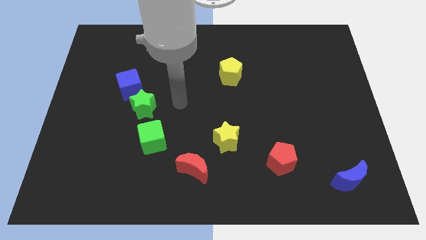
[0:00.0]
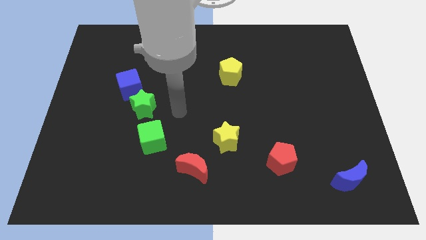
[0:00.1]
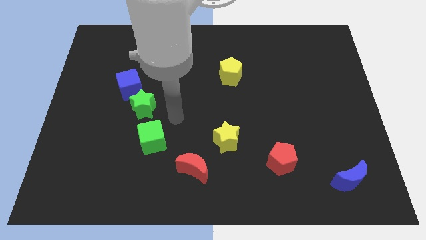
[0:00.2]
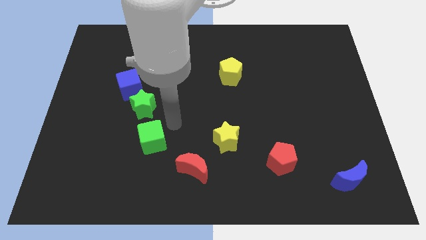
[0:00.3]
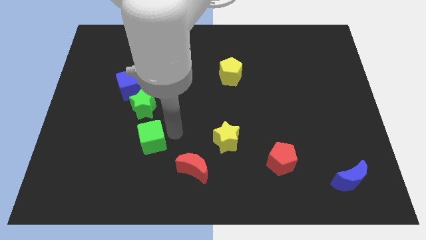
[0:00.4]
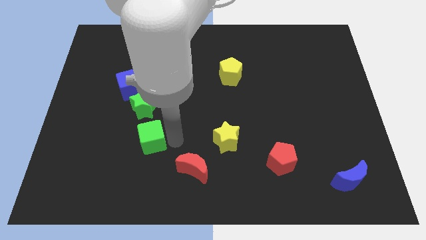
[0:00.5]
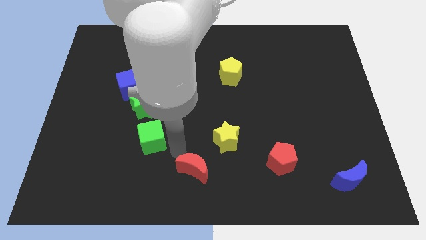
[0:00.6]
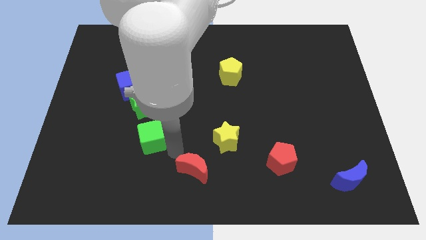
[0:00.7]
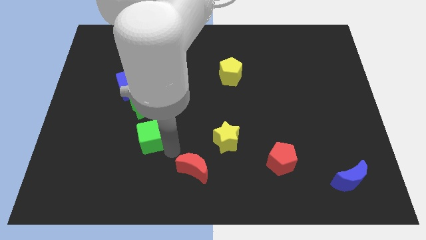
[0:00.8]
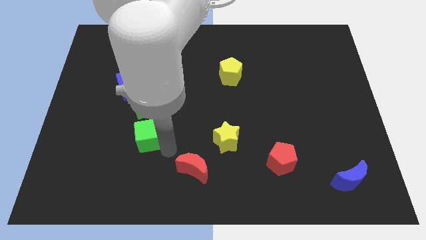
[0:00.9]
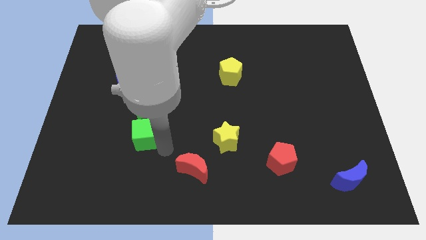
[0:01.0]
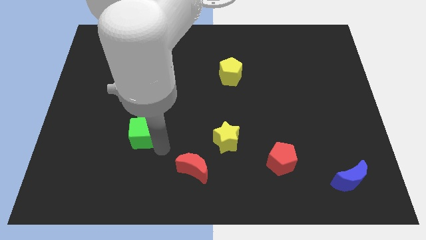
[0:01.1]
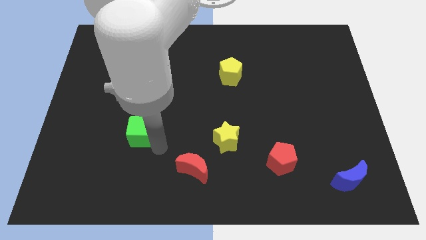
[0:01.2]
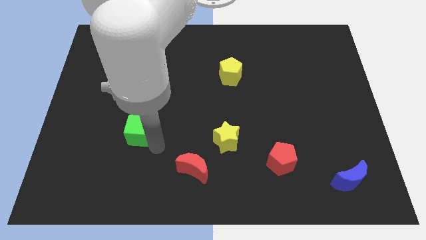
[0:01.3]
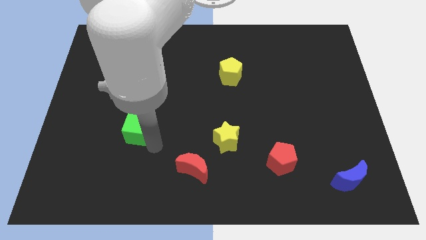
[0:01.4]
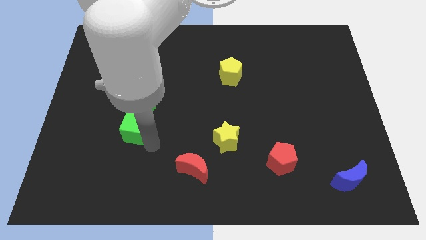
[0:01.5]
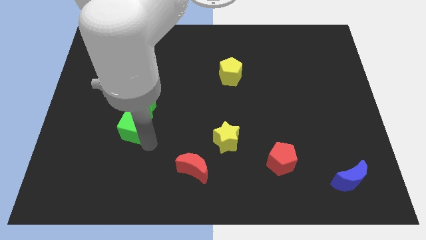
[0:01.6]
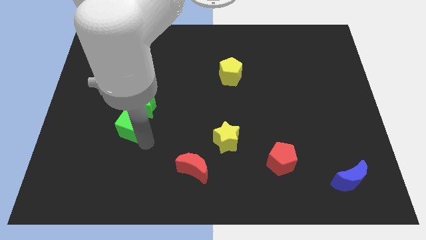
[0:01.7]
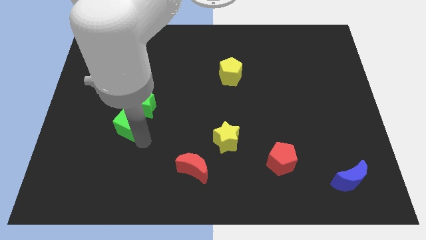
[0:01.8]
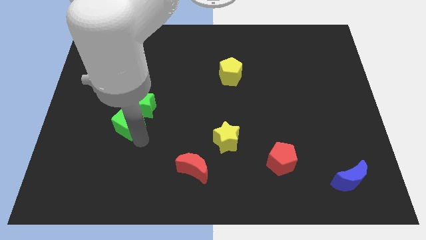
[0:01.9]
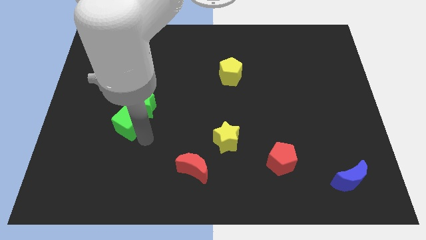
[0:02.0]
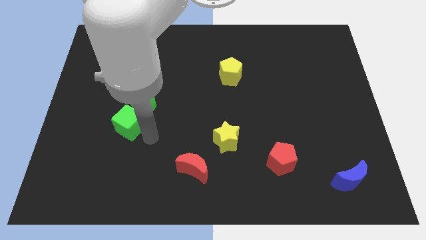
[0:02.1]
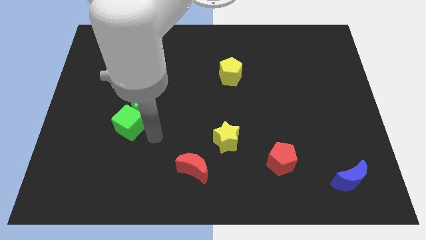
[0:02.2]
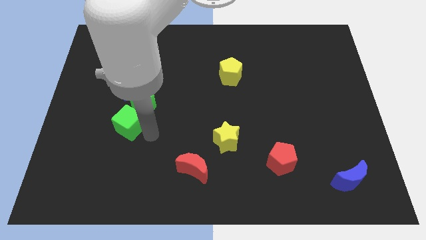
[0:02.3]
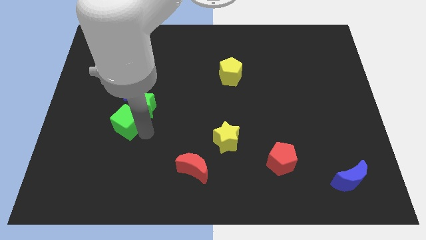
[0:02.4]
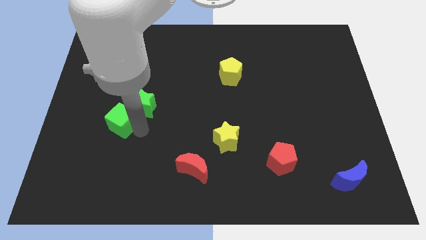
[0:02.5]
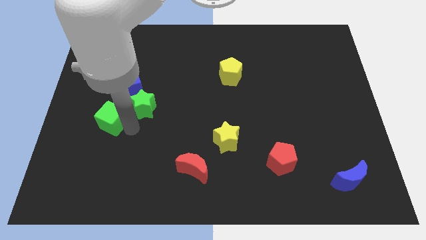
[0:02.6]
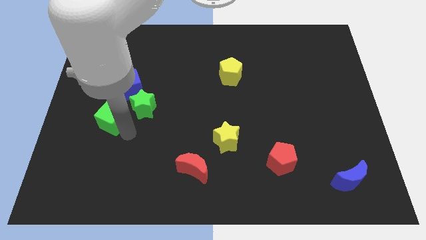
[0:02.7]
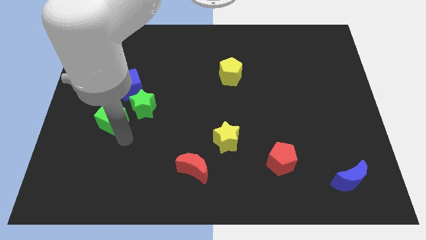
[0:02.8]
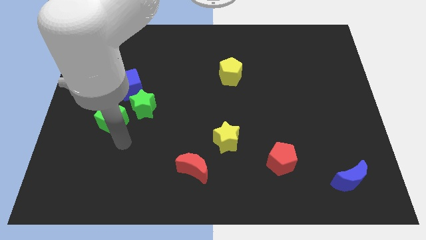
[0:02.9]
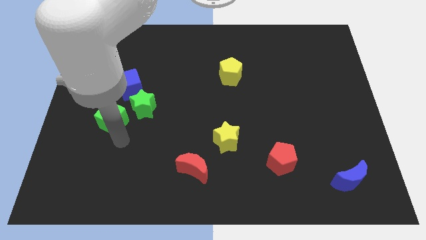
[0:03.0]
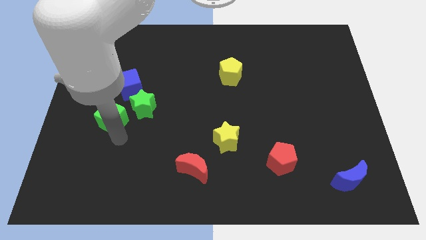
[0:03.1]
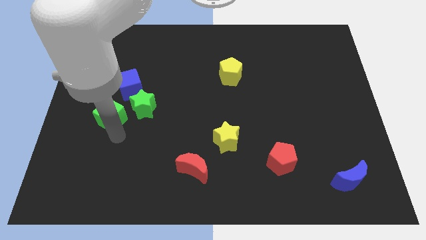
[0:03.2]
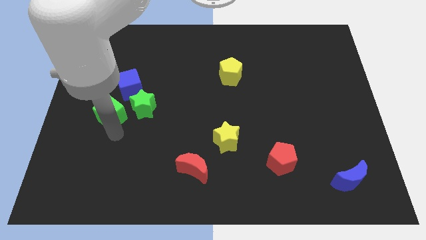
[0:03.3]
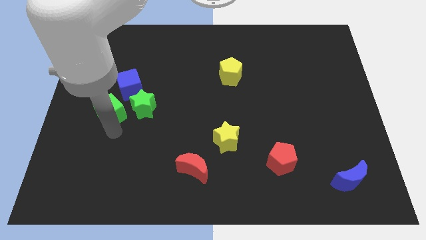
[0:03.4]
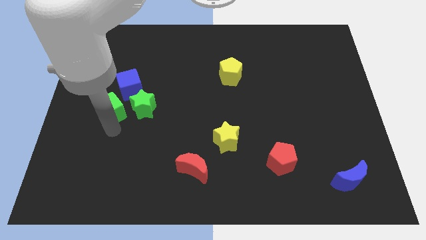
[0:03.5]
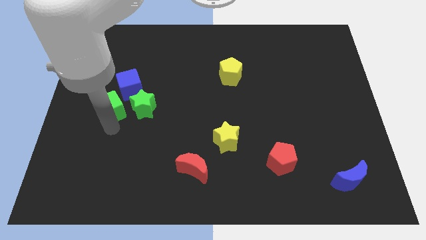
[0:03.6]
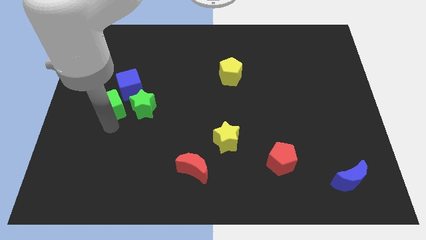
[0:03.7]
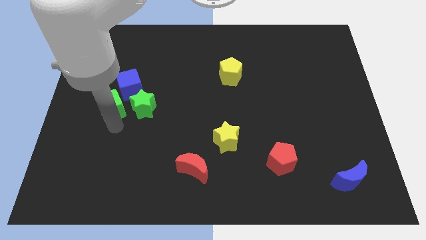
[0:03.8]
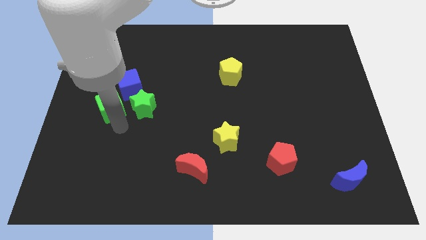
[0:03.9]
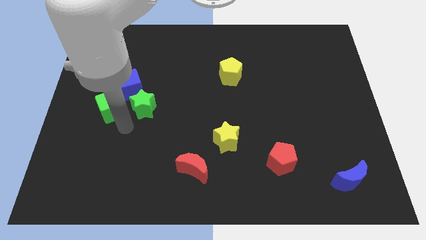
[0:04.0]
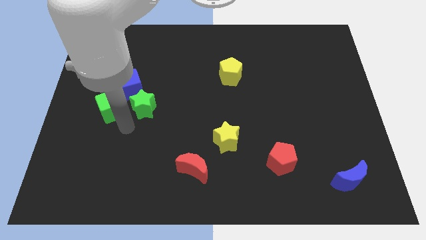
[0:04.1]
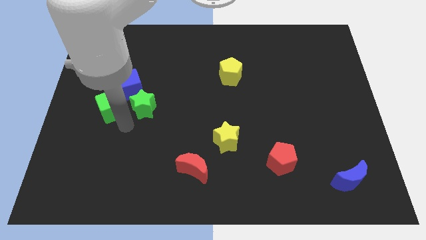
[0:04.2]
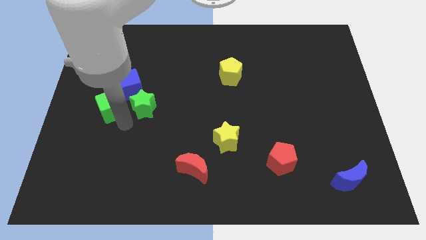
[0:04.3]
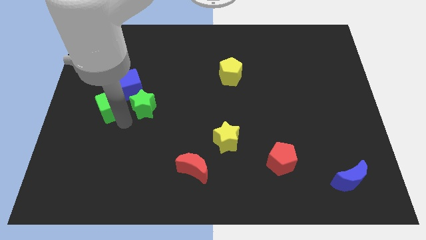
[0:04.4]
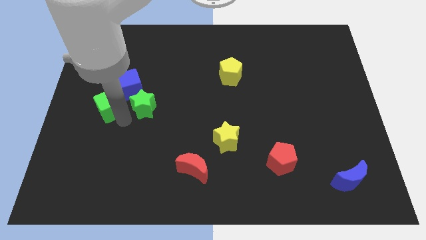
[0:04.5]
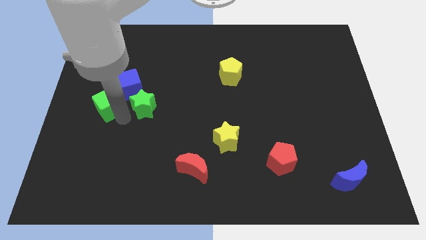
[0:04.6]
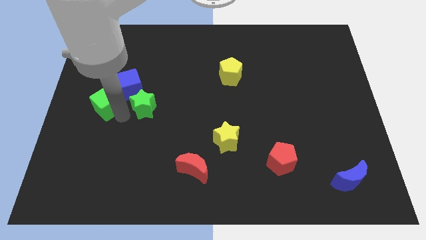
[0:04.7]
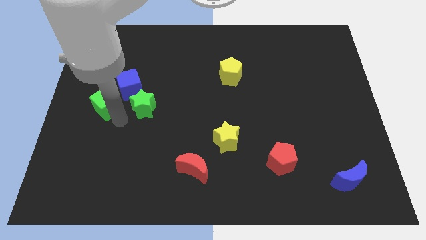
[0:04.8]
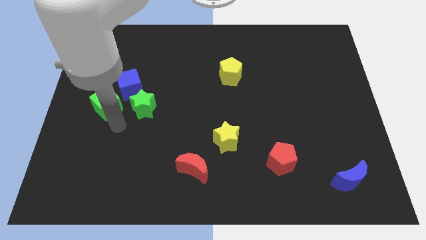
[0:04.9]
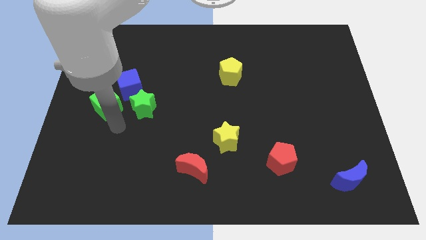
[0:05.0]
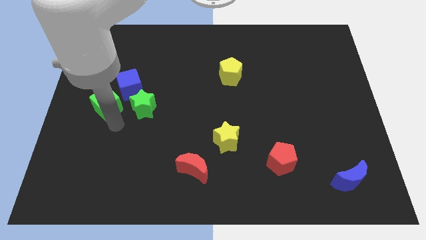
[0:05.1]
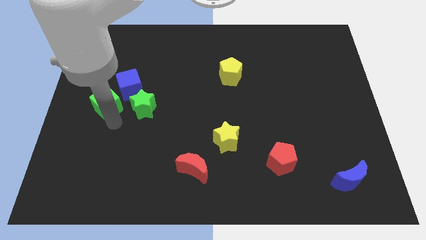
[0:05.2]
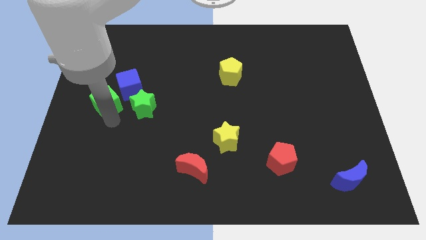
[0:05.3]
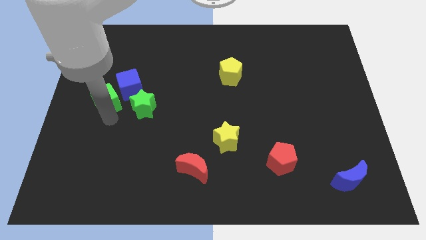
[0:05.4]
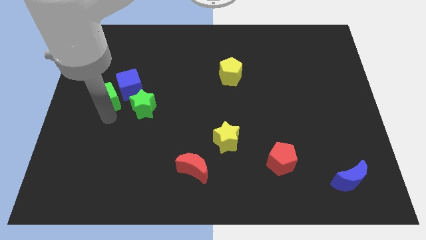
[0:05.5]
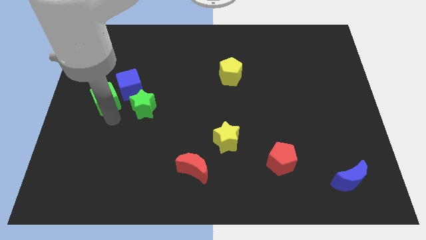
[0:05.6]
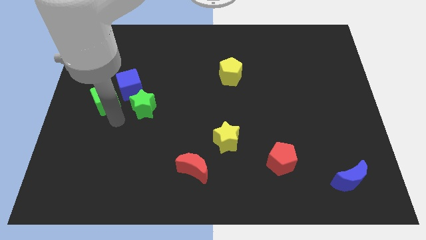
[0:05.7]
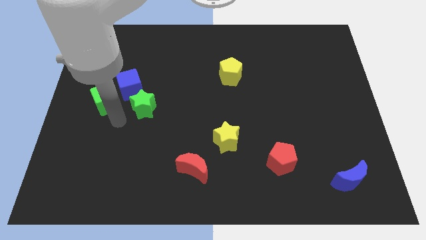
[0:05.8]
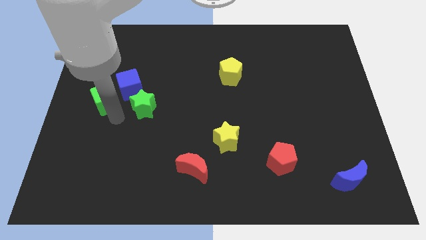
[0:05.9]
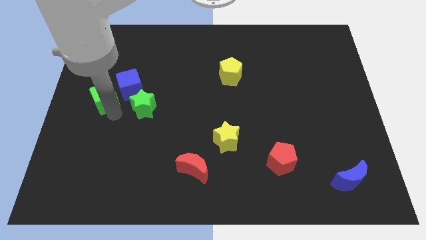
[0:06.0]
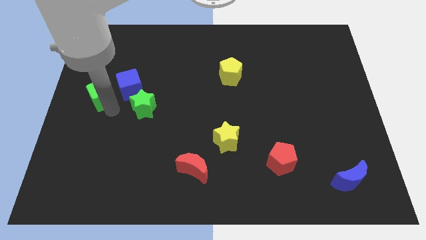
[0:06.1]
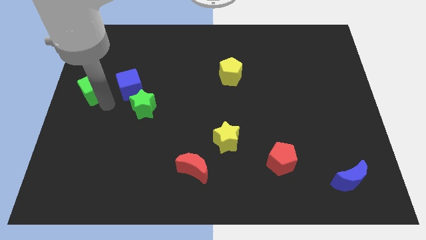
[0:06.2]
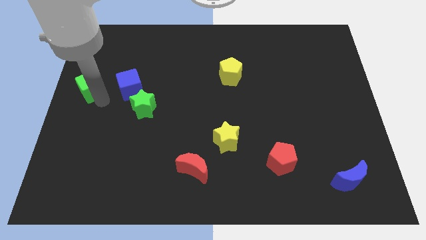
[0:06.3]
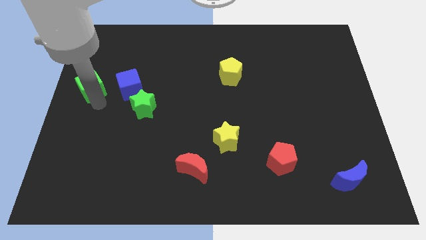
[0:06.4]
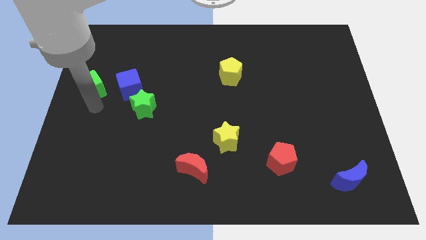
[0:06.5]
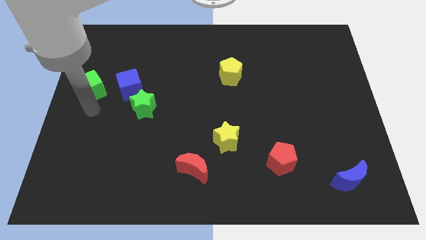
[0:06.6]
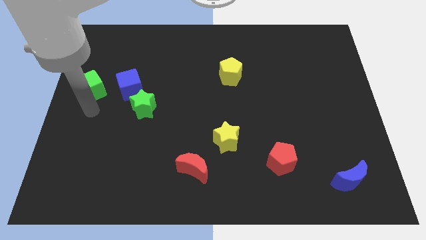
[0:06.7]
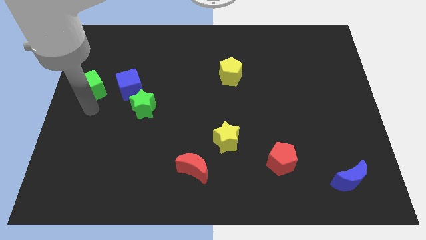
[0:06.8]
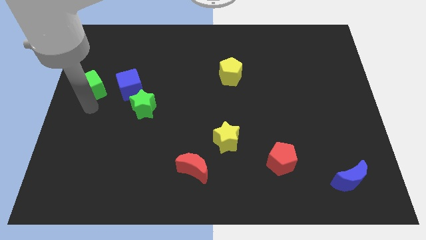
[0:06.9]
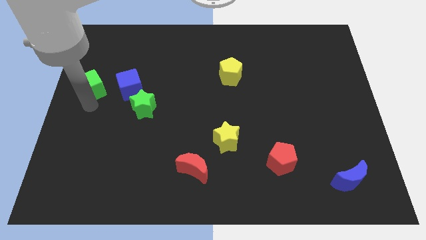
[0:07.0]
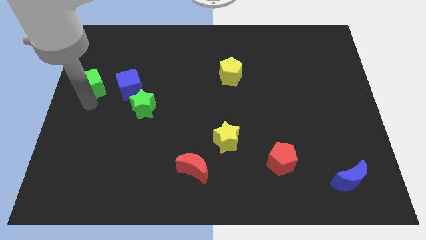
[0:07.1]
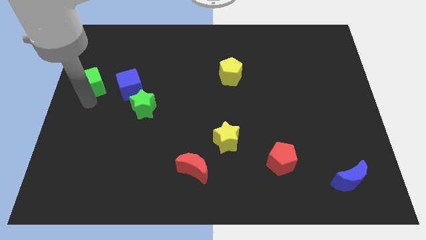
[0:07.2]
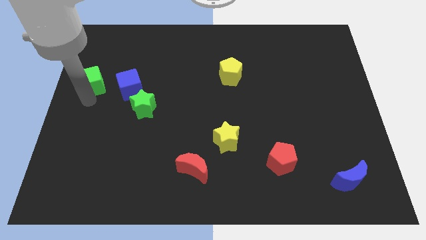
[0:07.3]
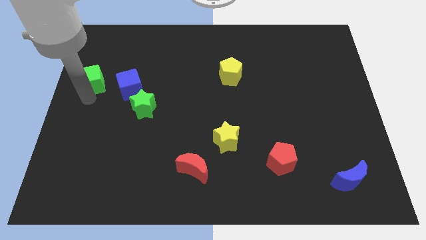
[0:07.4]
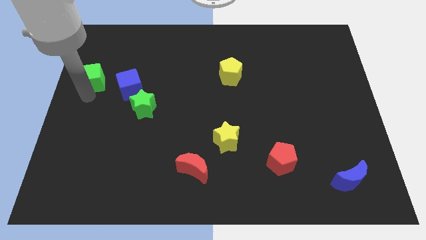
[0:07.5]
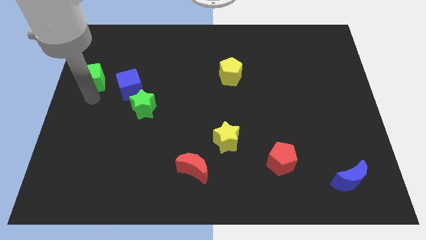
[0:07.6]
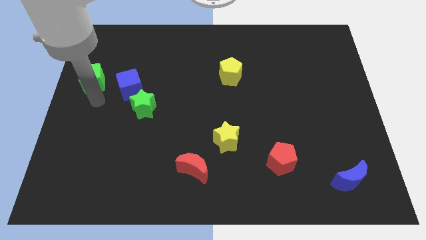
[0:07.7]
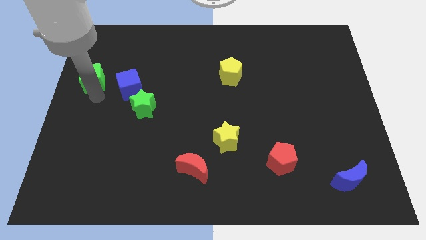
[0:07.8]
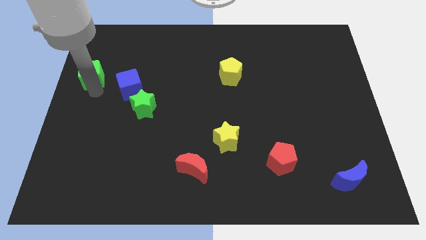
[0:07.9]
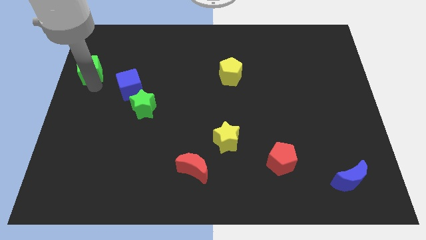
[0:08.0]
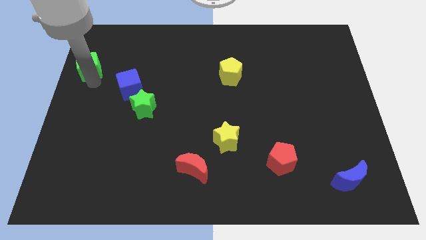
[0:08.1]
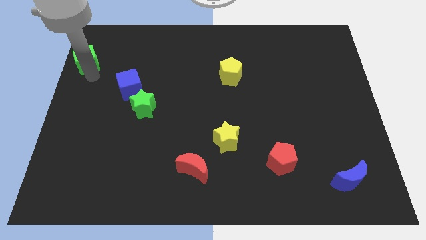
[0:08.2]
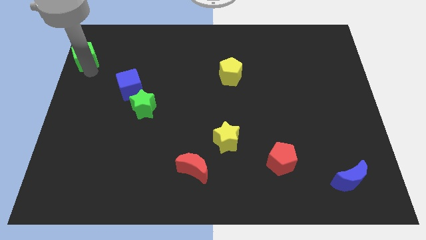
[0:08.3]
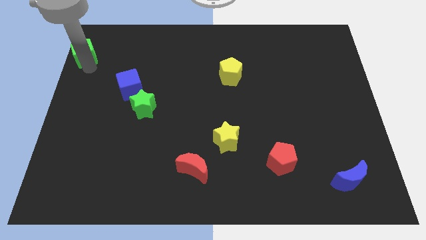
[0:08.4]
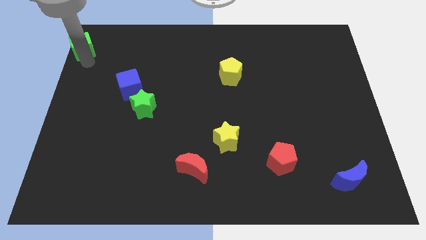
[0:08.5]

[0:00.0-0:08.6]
push the green cube to the top left corner
